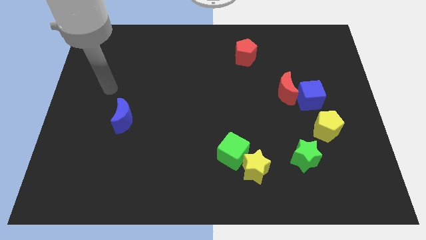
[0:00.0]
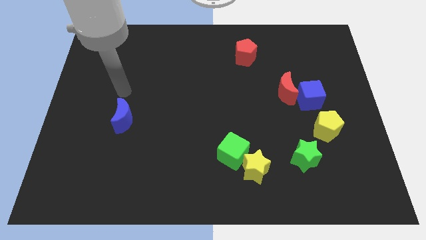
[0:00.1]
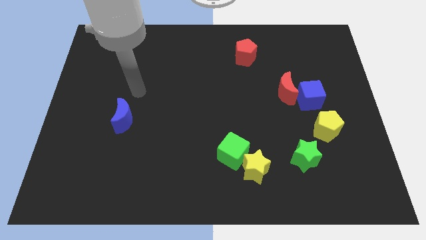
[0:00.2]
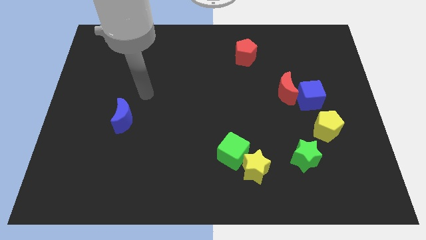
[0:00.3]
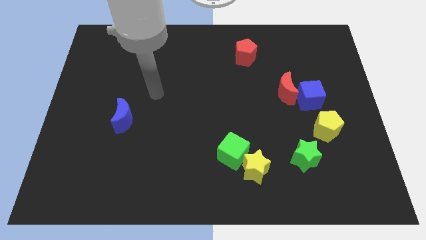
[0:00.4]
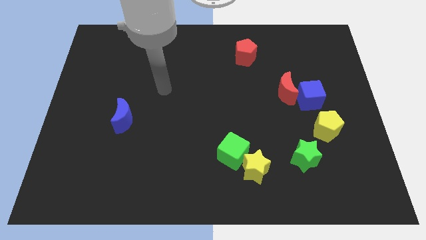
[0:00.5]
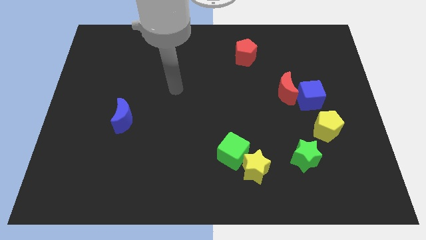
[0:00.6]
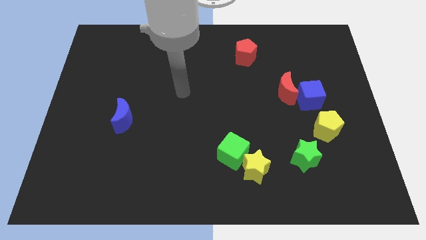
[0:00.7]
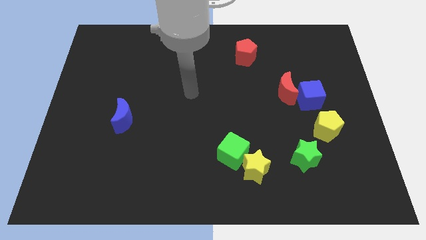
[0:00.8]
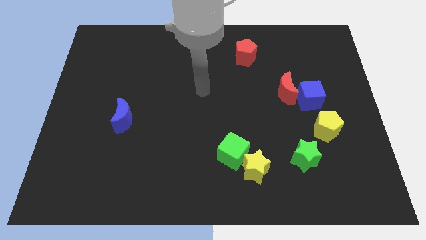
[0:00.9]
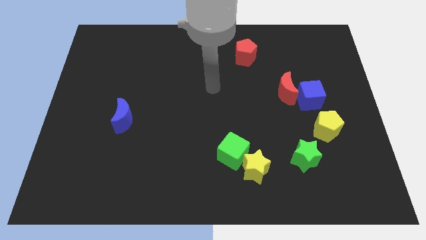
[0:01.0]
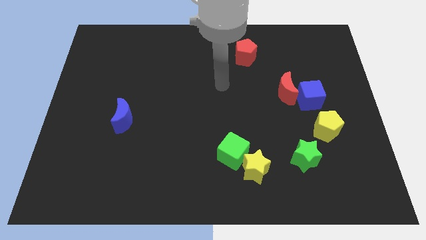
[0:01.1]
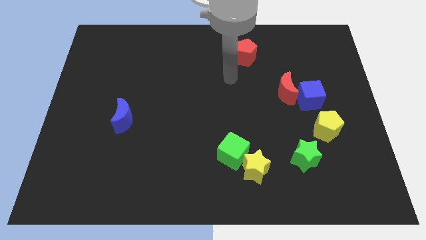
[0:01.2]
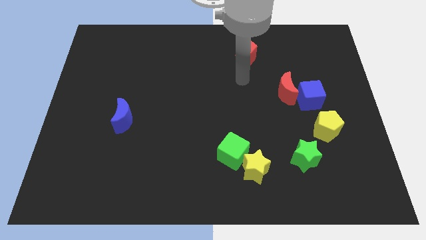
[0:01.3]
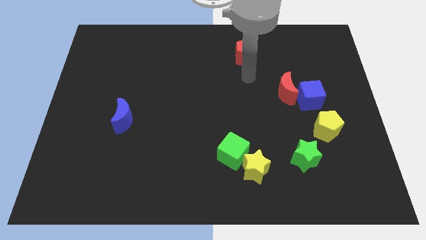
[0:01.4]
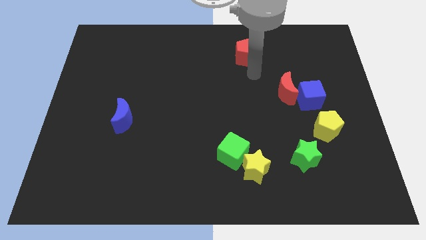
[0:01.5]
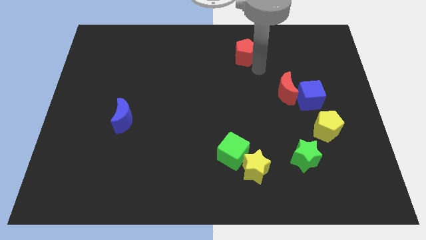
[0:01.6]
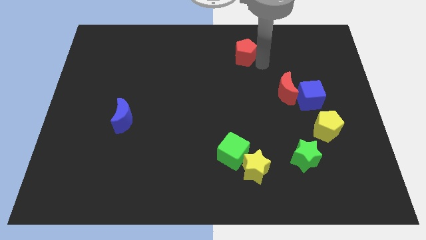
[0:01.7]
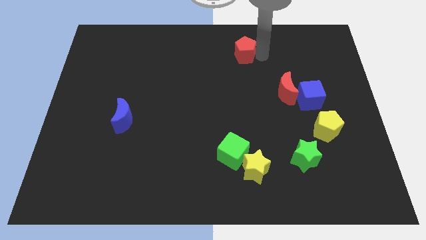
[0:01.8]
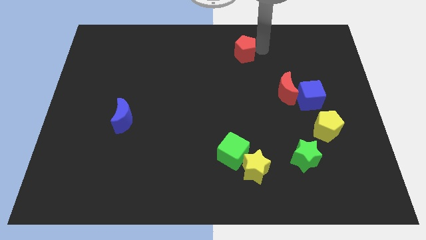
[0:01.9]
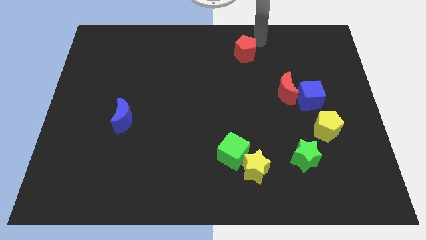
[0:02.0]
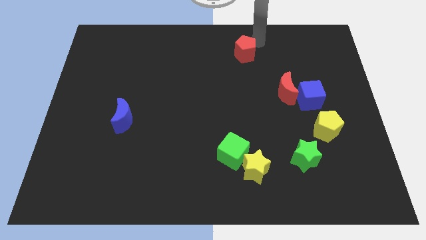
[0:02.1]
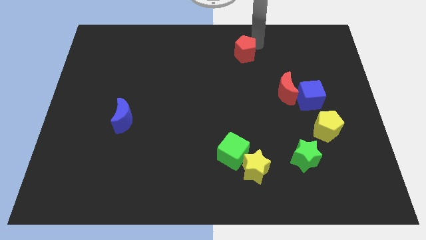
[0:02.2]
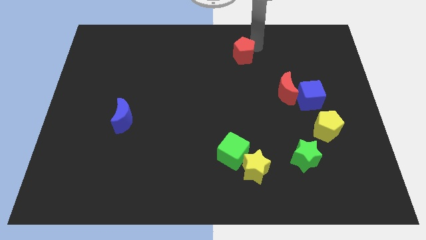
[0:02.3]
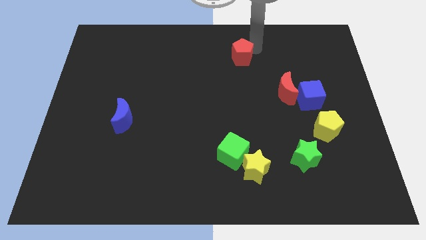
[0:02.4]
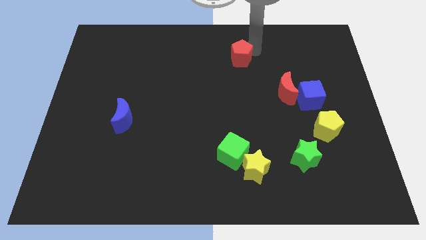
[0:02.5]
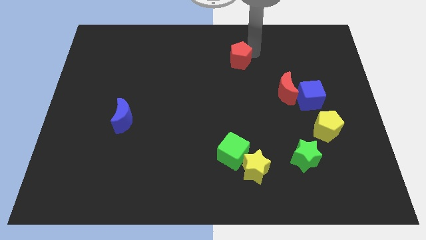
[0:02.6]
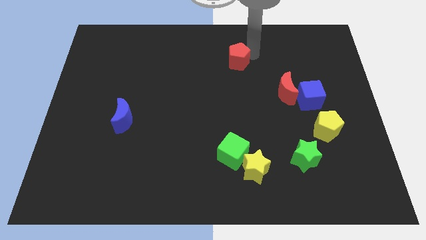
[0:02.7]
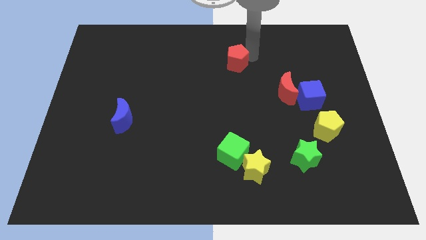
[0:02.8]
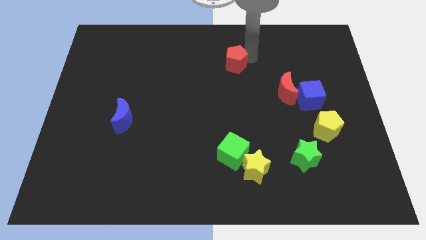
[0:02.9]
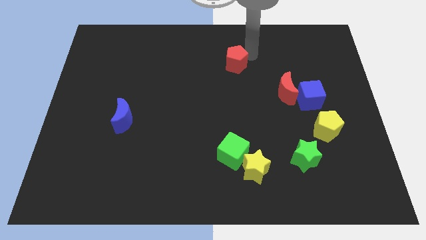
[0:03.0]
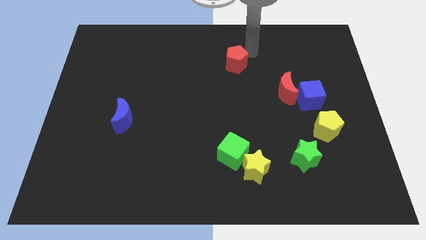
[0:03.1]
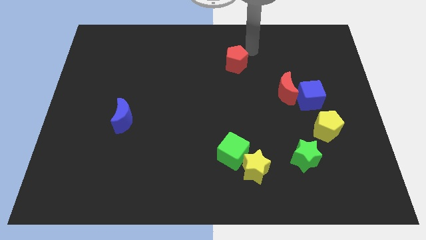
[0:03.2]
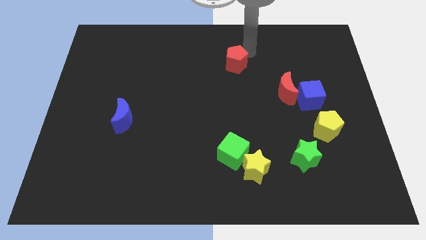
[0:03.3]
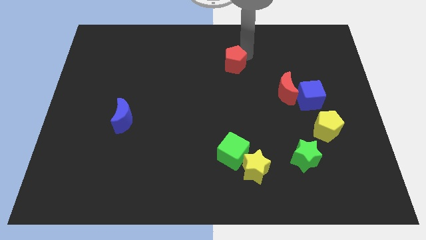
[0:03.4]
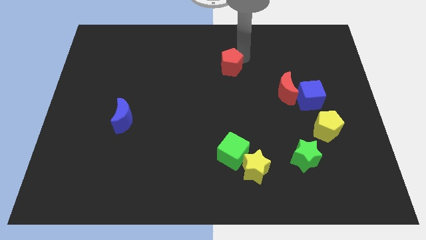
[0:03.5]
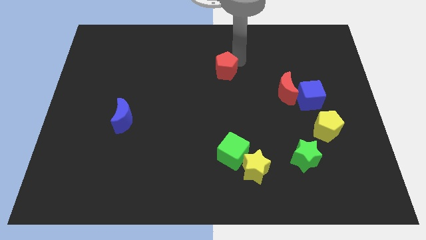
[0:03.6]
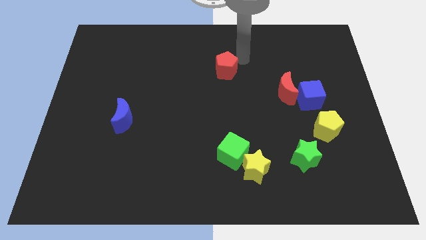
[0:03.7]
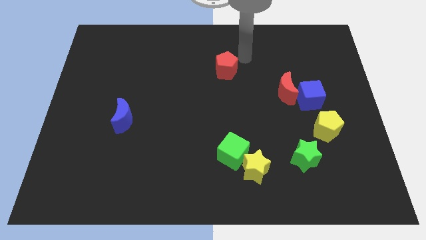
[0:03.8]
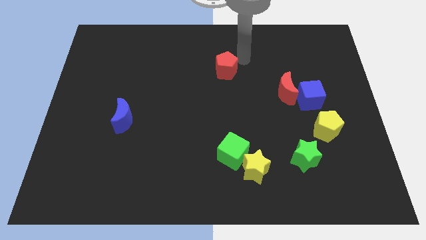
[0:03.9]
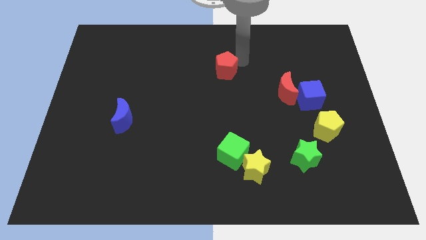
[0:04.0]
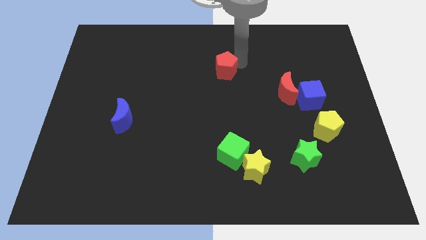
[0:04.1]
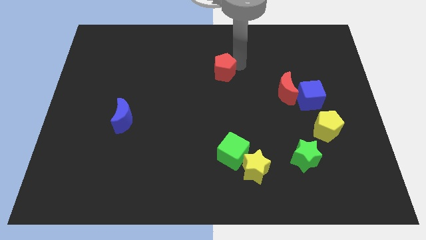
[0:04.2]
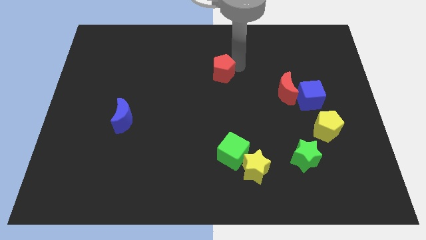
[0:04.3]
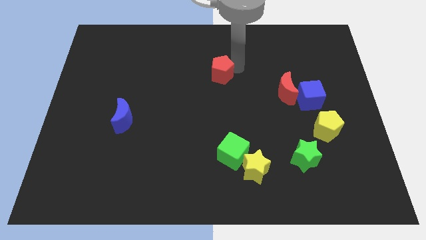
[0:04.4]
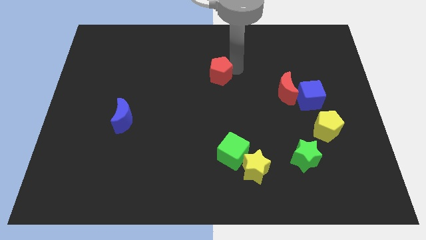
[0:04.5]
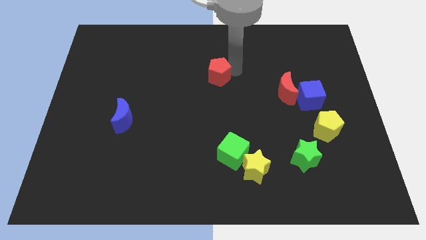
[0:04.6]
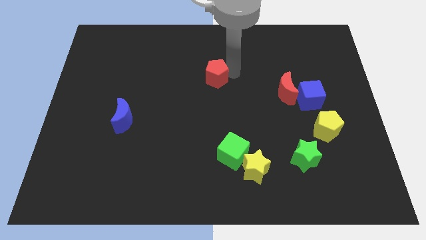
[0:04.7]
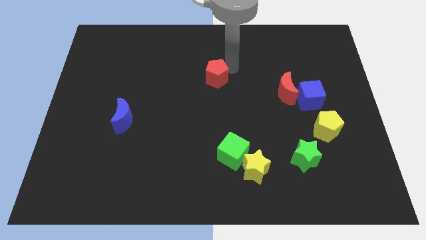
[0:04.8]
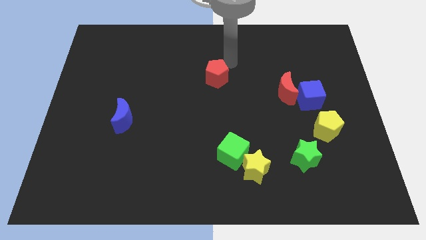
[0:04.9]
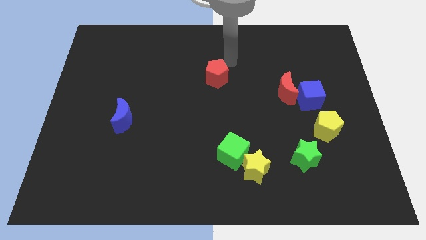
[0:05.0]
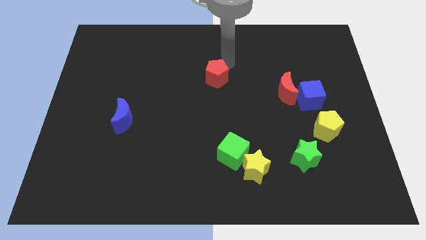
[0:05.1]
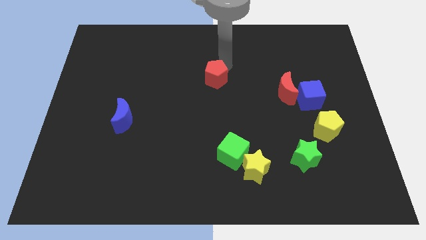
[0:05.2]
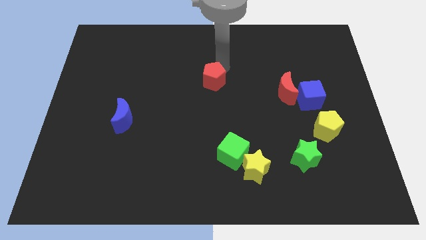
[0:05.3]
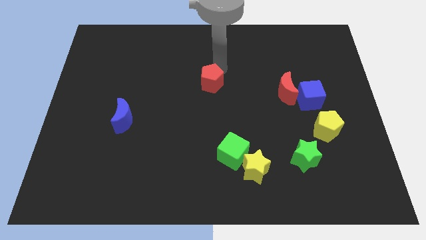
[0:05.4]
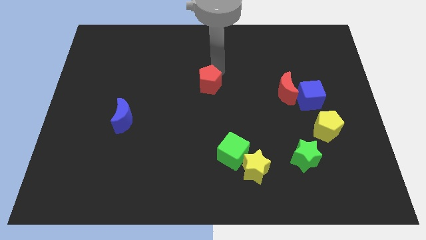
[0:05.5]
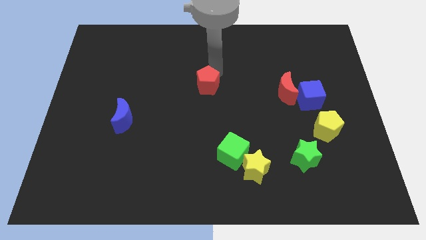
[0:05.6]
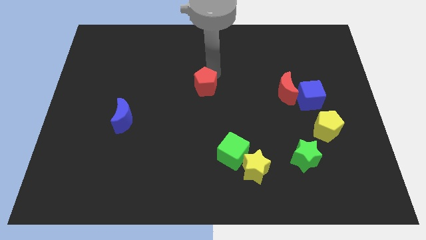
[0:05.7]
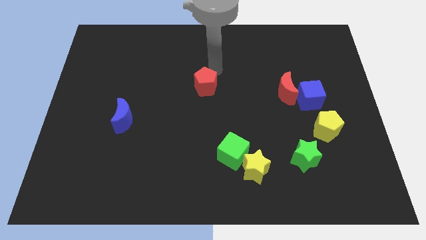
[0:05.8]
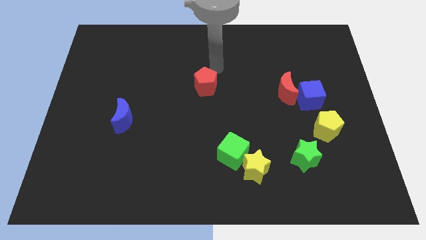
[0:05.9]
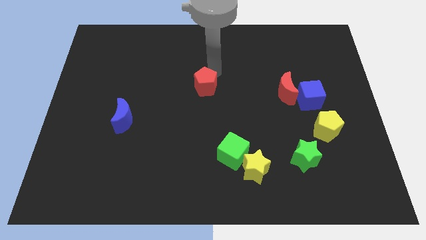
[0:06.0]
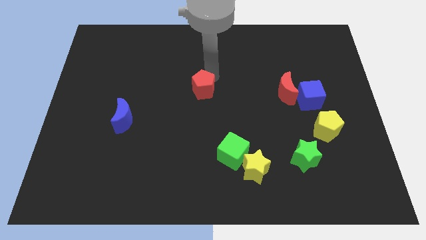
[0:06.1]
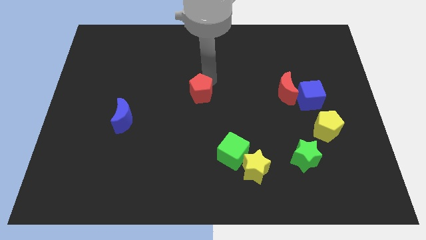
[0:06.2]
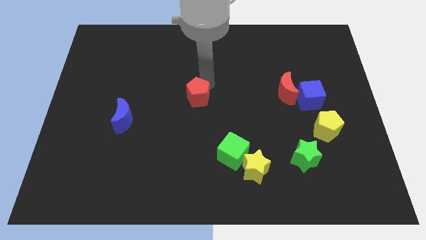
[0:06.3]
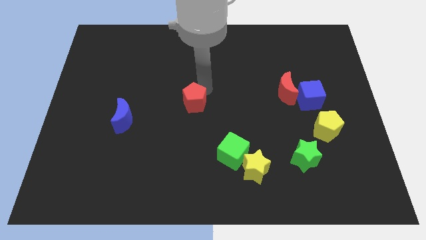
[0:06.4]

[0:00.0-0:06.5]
move the red pentagon diagonally down and to the left

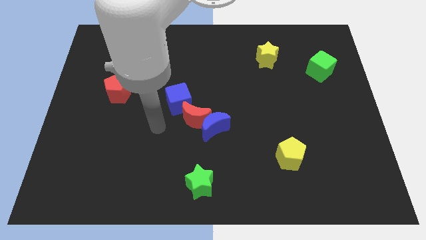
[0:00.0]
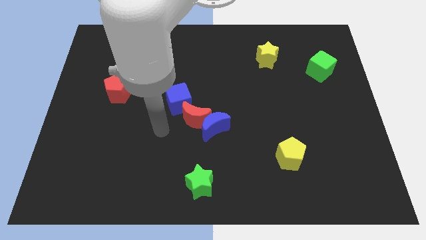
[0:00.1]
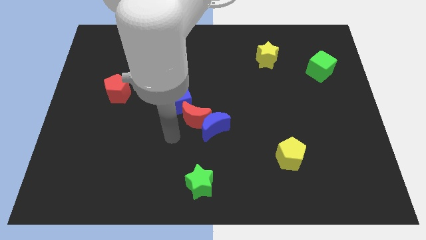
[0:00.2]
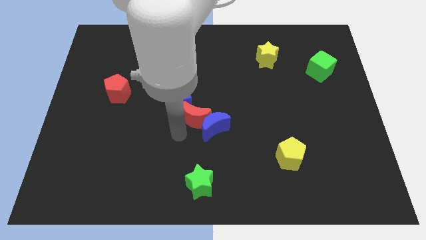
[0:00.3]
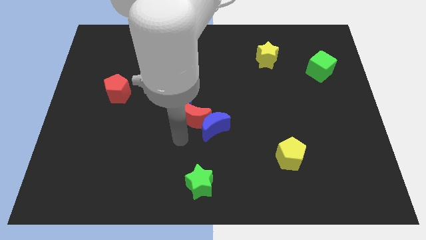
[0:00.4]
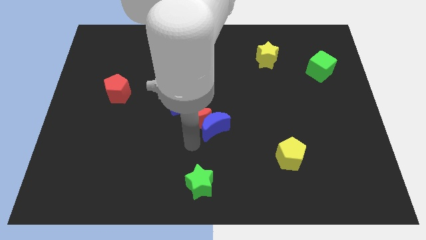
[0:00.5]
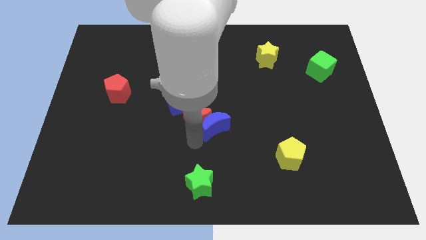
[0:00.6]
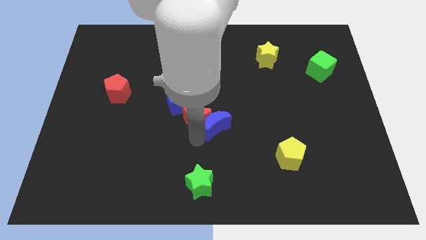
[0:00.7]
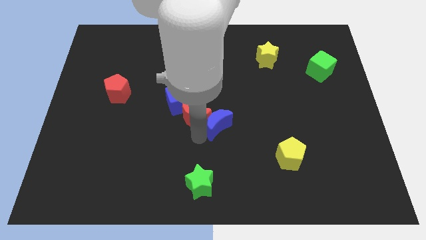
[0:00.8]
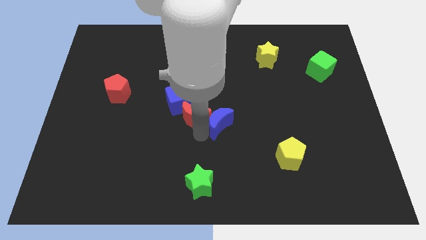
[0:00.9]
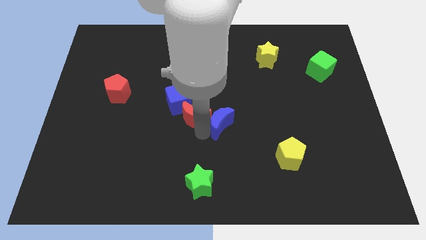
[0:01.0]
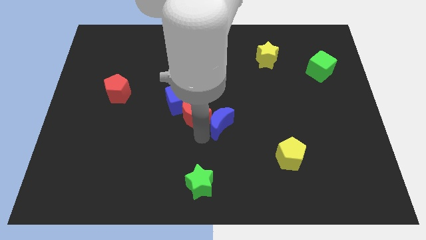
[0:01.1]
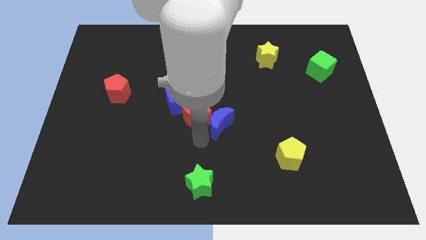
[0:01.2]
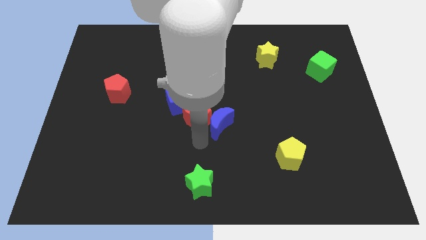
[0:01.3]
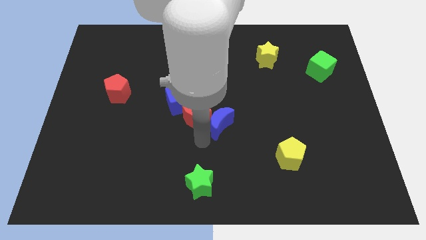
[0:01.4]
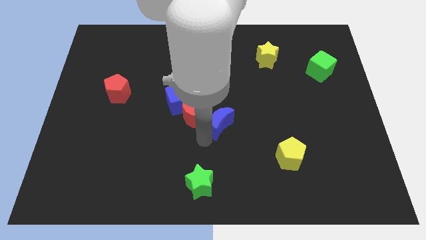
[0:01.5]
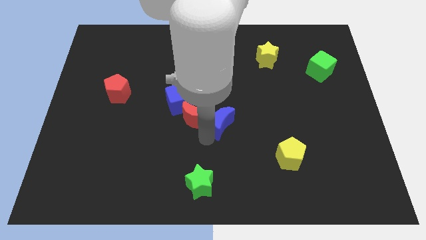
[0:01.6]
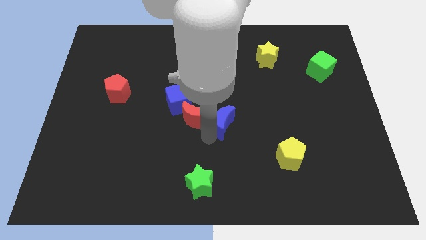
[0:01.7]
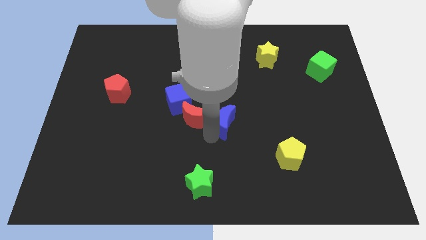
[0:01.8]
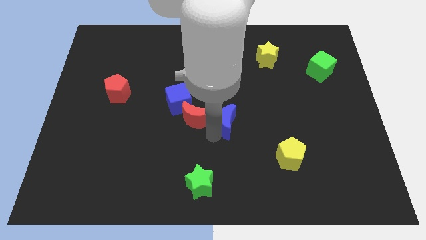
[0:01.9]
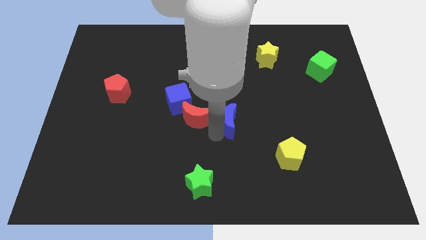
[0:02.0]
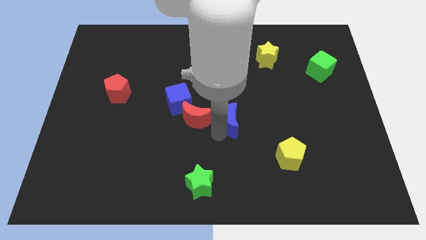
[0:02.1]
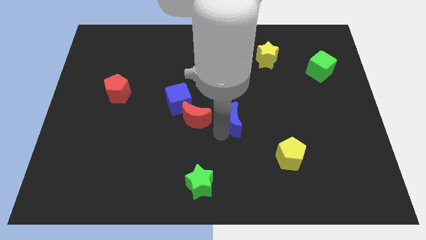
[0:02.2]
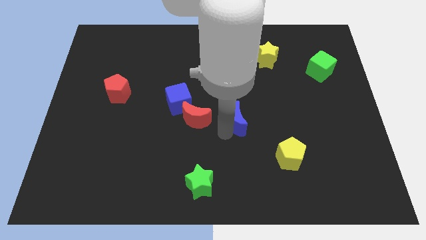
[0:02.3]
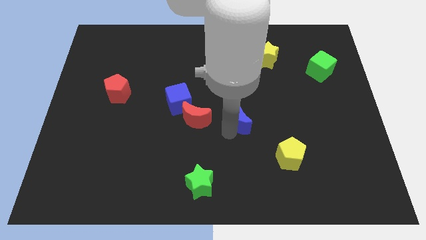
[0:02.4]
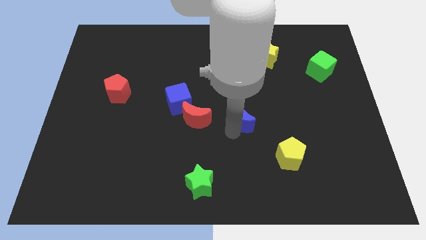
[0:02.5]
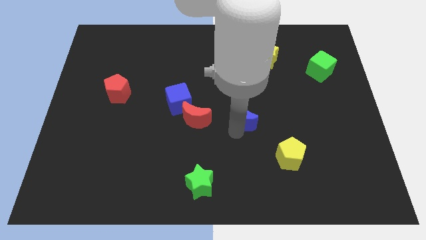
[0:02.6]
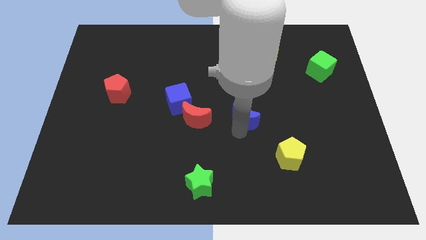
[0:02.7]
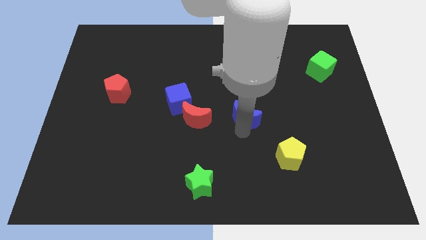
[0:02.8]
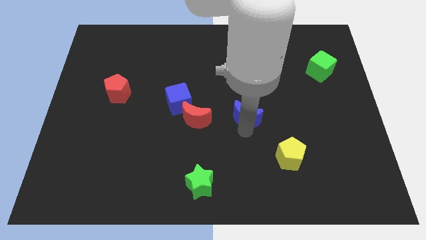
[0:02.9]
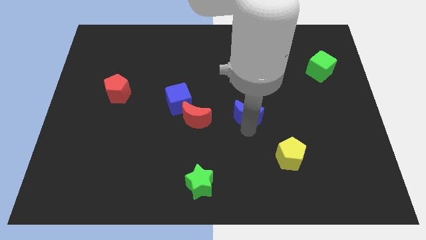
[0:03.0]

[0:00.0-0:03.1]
move the blue moon up and right diagonally somewhat
